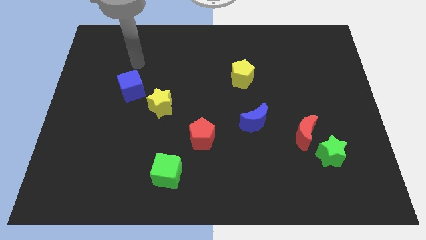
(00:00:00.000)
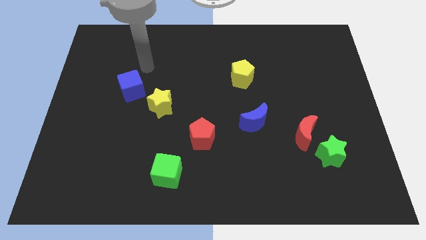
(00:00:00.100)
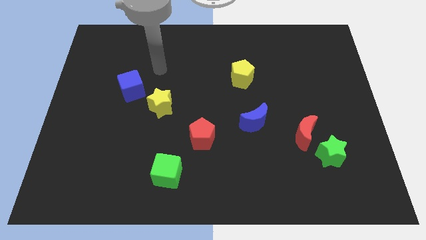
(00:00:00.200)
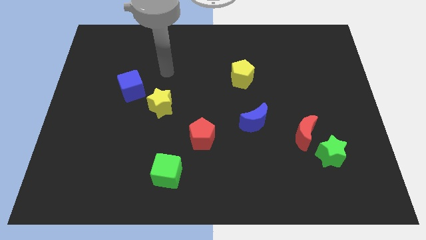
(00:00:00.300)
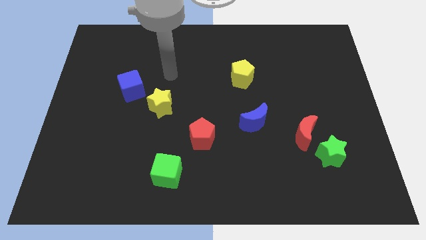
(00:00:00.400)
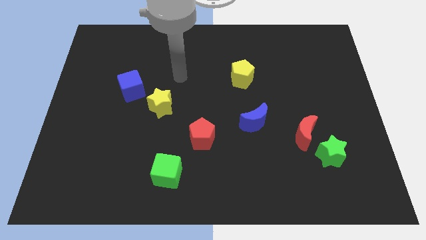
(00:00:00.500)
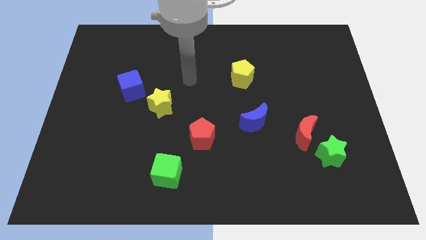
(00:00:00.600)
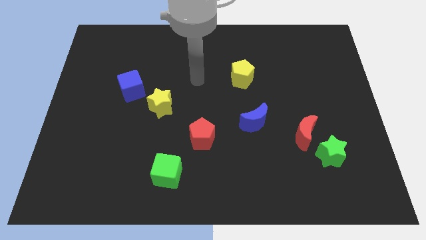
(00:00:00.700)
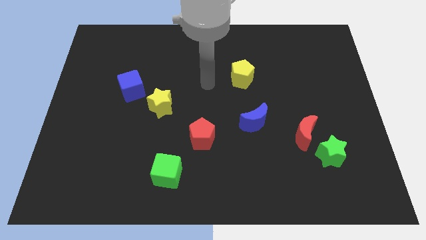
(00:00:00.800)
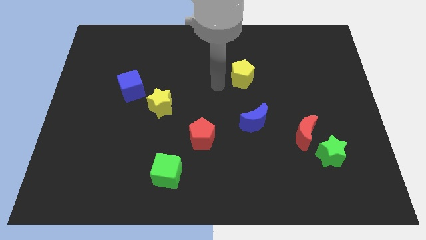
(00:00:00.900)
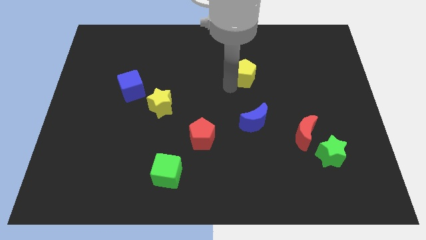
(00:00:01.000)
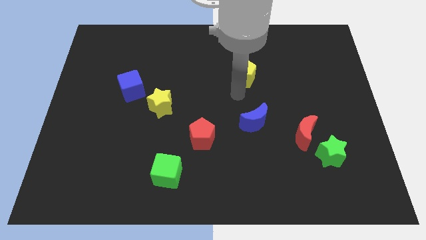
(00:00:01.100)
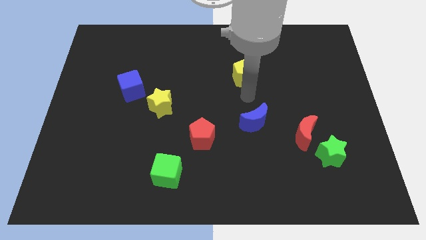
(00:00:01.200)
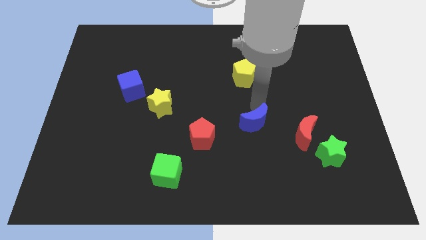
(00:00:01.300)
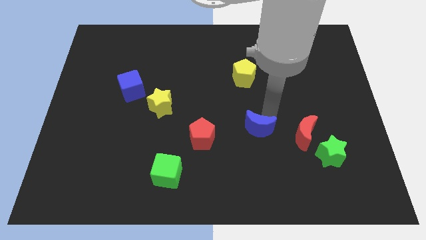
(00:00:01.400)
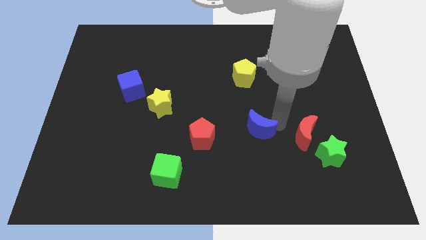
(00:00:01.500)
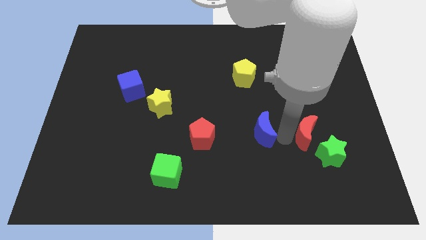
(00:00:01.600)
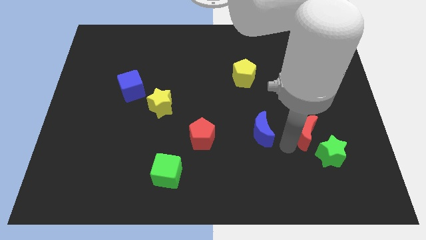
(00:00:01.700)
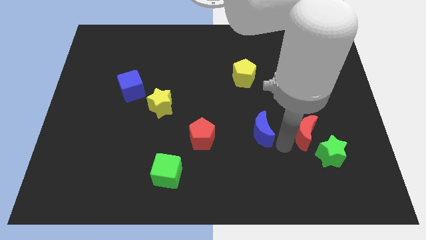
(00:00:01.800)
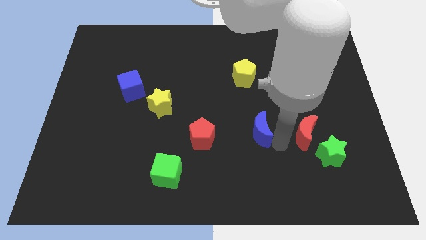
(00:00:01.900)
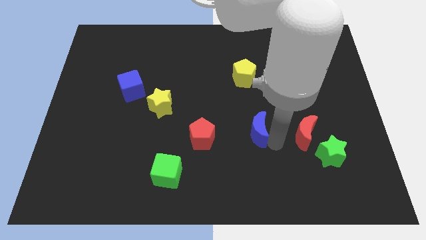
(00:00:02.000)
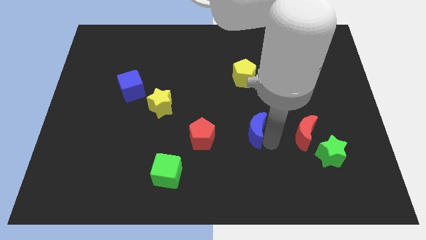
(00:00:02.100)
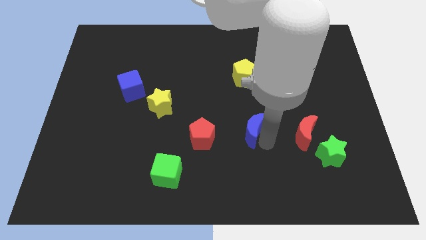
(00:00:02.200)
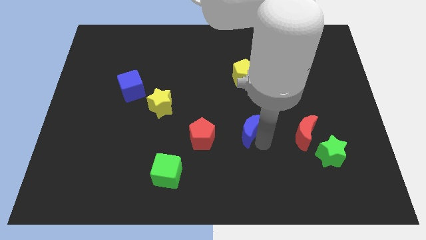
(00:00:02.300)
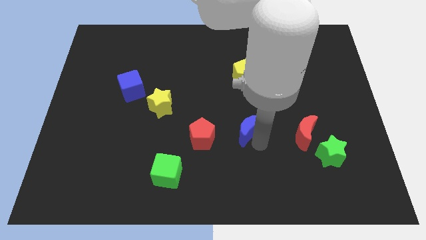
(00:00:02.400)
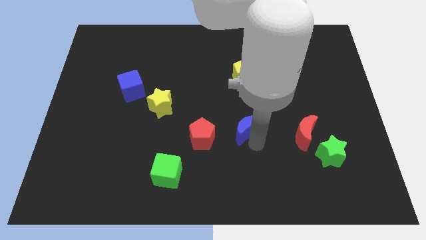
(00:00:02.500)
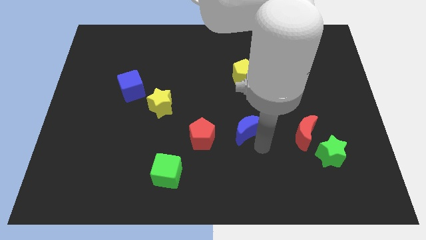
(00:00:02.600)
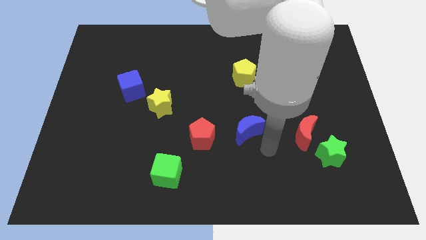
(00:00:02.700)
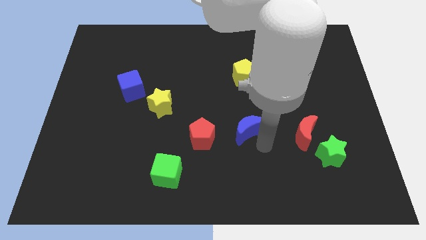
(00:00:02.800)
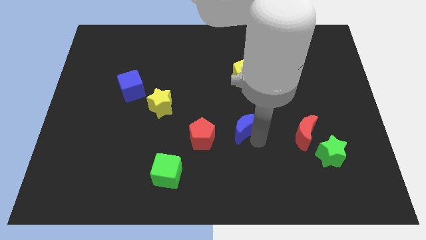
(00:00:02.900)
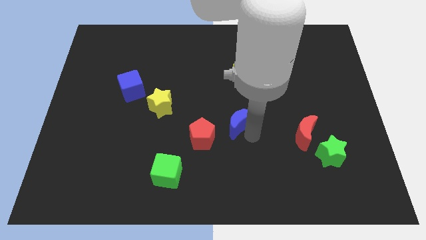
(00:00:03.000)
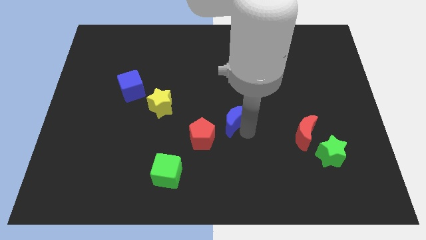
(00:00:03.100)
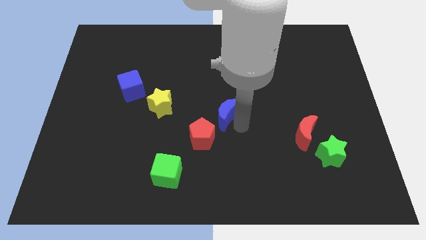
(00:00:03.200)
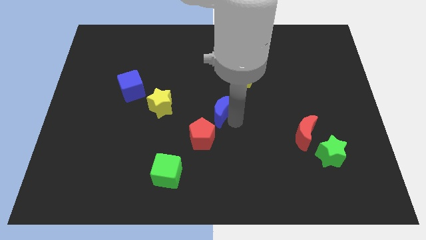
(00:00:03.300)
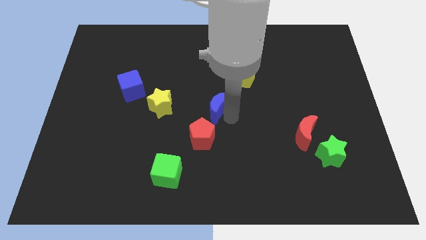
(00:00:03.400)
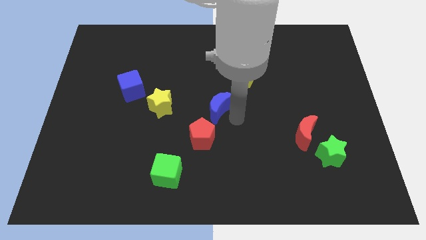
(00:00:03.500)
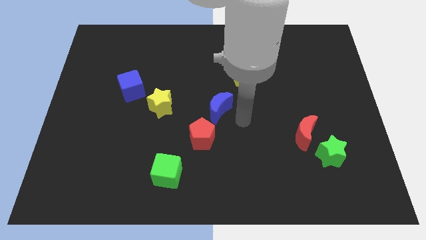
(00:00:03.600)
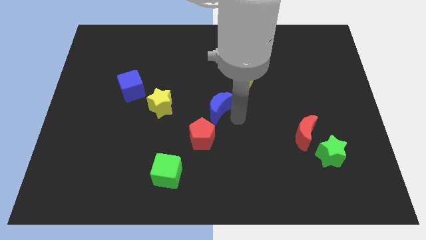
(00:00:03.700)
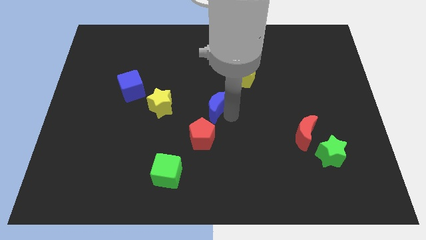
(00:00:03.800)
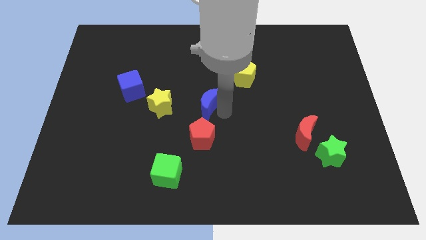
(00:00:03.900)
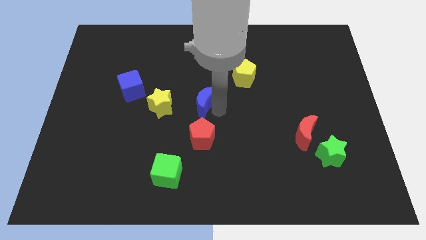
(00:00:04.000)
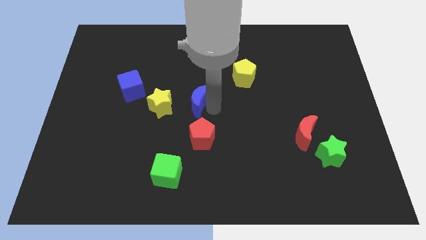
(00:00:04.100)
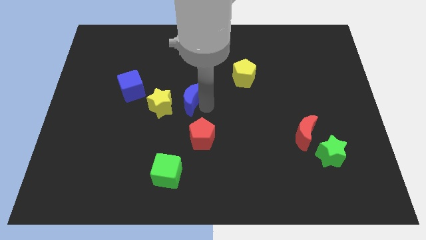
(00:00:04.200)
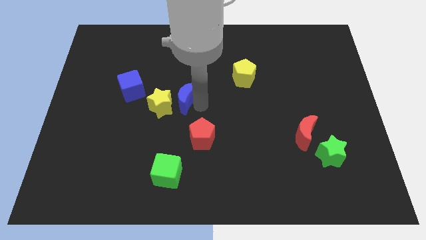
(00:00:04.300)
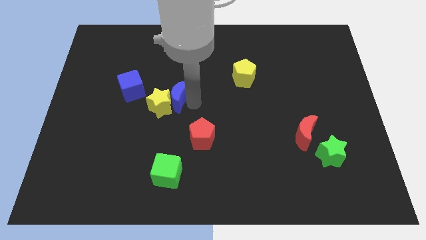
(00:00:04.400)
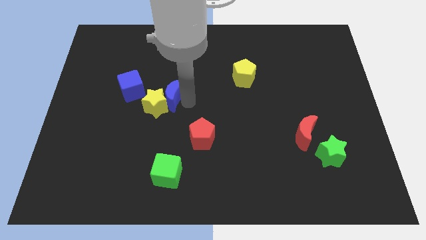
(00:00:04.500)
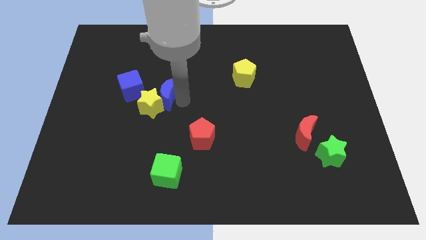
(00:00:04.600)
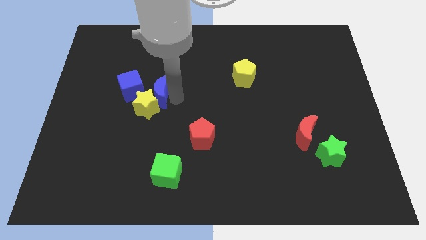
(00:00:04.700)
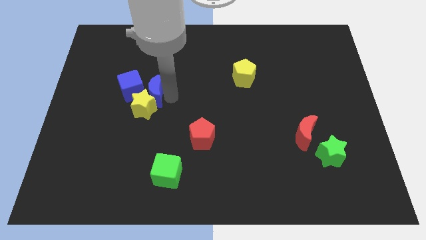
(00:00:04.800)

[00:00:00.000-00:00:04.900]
push the blue moon towards the blue cube

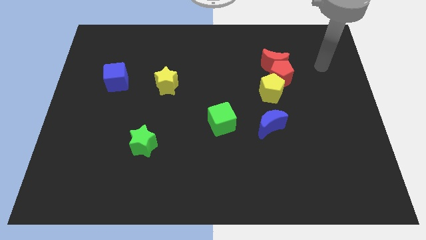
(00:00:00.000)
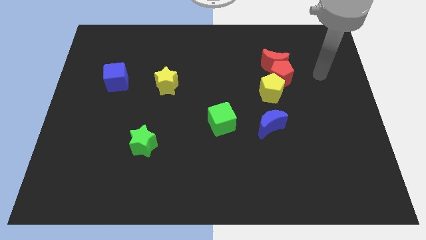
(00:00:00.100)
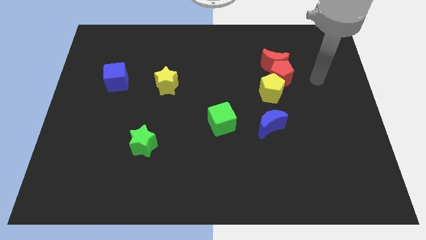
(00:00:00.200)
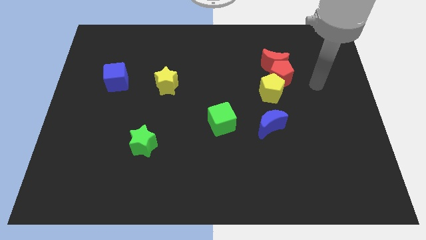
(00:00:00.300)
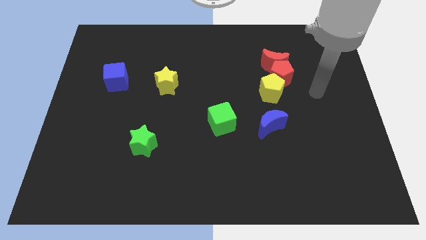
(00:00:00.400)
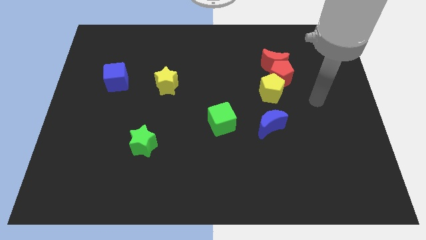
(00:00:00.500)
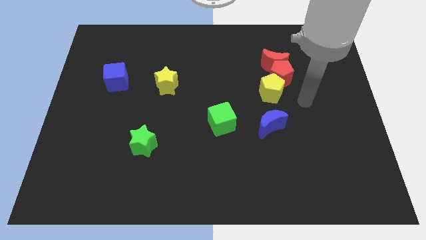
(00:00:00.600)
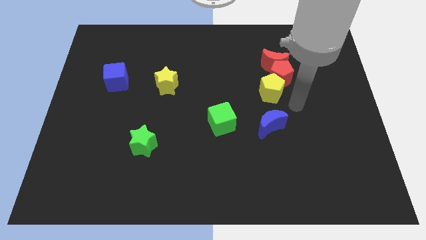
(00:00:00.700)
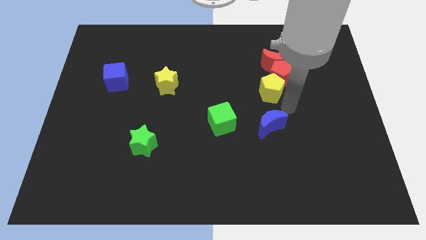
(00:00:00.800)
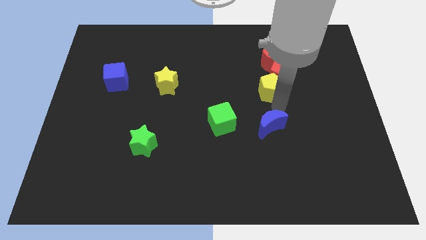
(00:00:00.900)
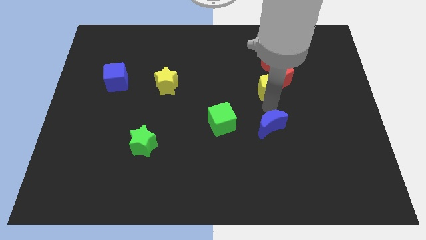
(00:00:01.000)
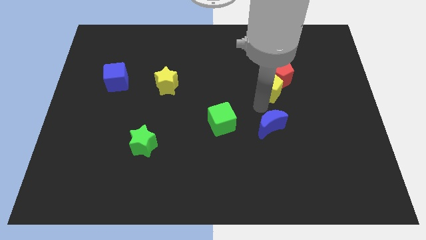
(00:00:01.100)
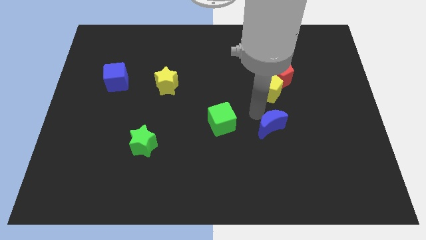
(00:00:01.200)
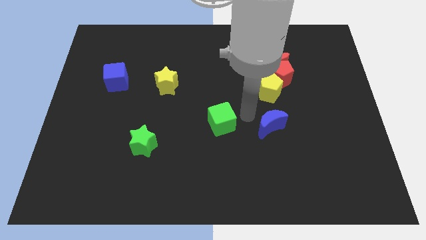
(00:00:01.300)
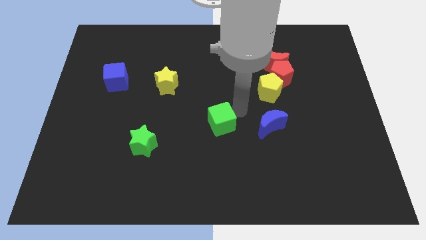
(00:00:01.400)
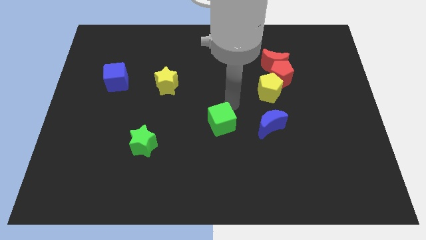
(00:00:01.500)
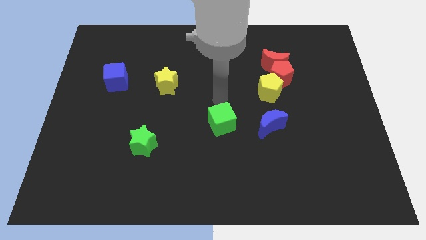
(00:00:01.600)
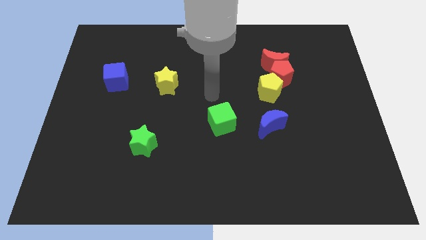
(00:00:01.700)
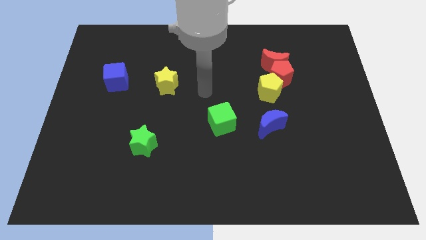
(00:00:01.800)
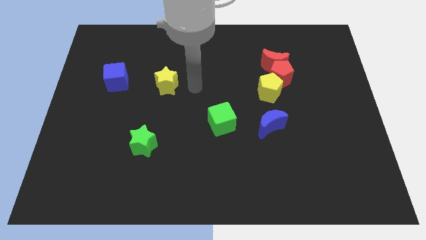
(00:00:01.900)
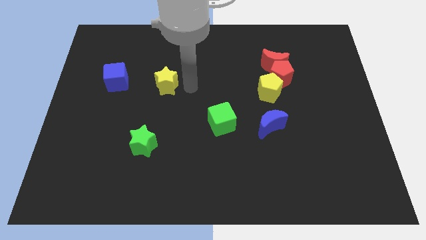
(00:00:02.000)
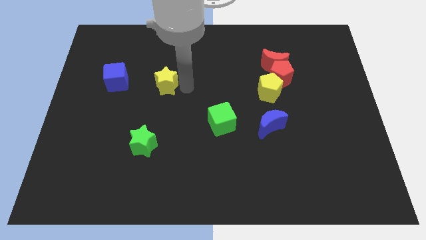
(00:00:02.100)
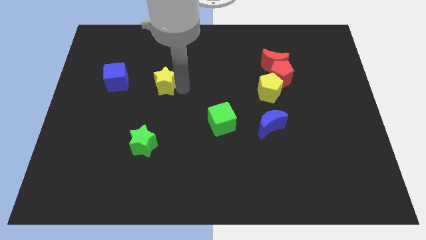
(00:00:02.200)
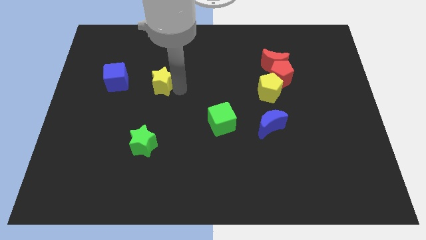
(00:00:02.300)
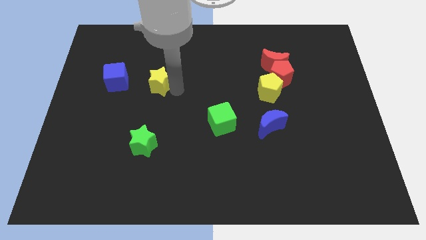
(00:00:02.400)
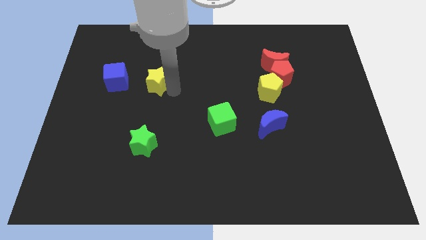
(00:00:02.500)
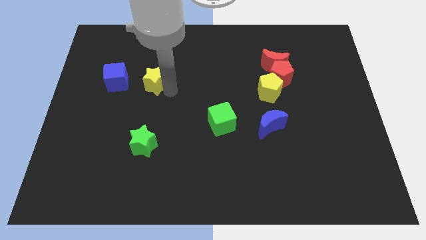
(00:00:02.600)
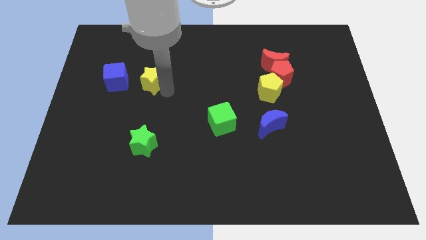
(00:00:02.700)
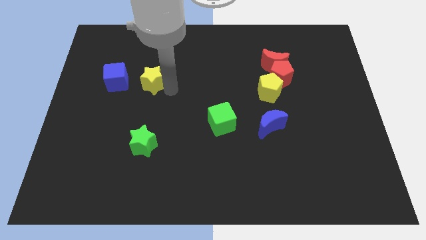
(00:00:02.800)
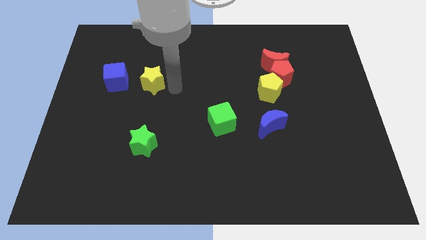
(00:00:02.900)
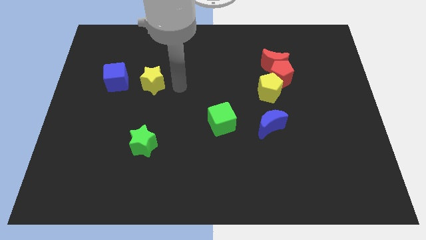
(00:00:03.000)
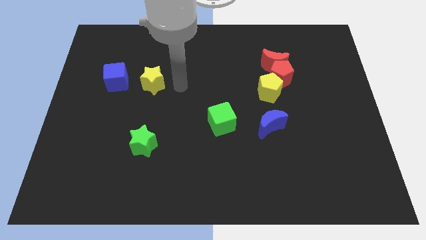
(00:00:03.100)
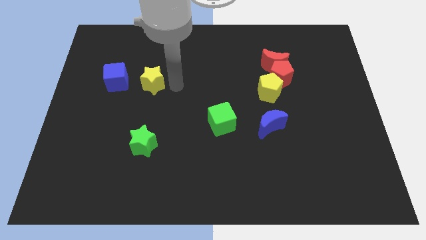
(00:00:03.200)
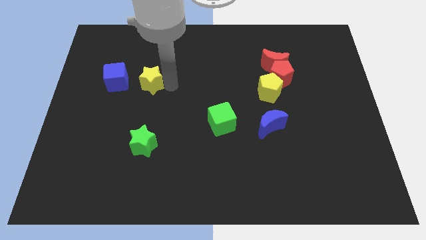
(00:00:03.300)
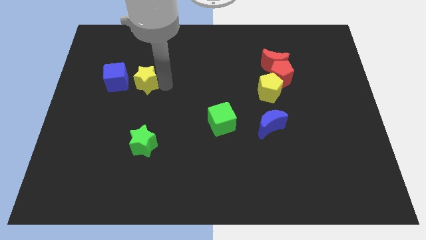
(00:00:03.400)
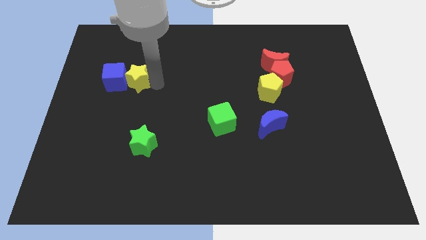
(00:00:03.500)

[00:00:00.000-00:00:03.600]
slide the yellow star close to the blue cube
